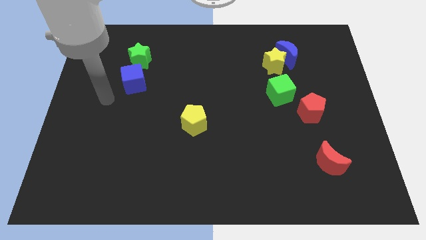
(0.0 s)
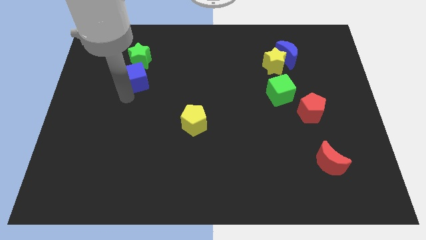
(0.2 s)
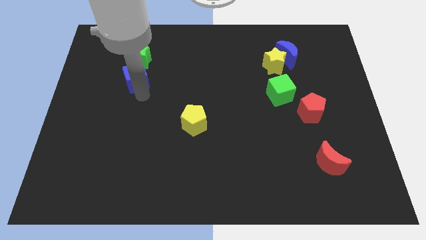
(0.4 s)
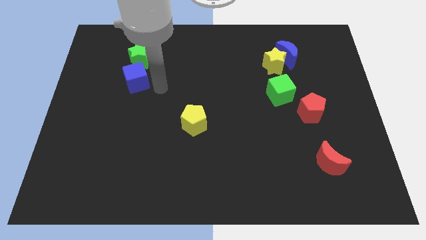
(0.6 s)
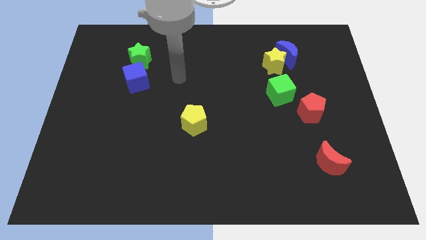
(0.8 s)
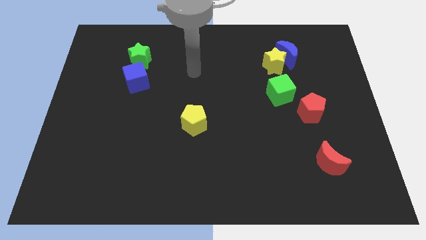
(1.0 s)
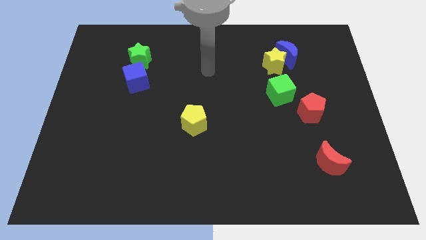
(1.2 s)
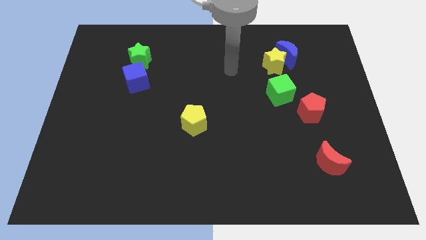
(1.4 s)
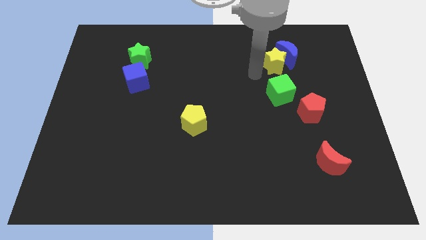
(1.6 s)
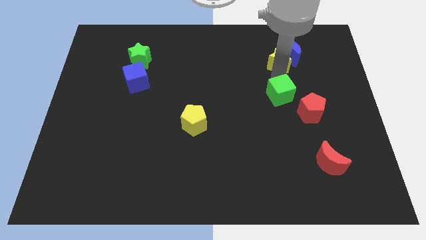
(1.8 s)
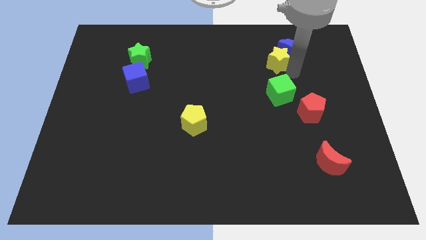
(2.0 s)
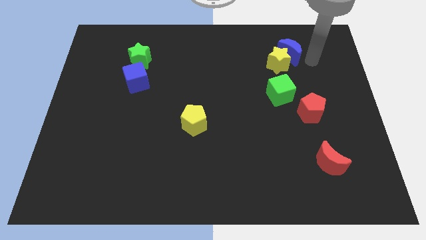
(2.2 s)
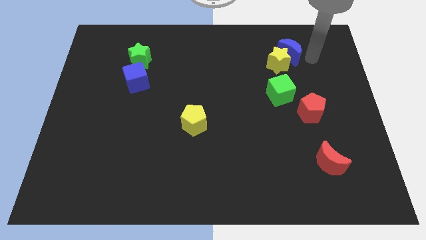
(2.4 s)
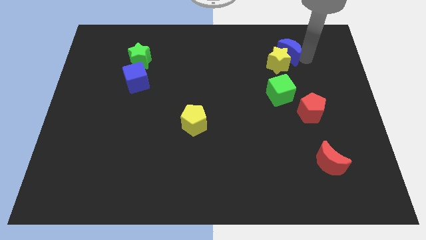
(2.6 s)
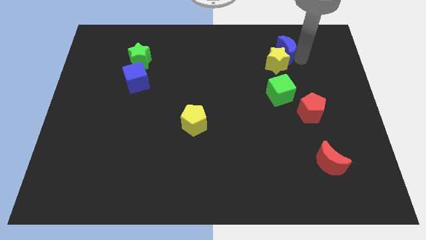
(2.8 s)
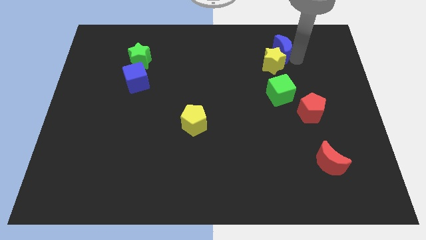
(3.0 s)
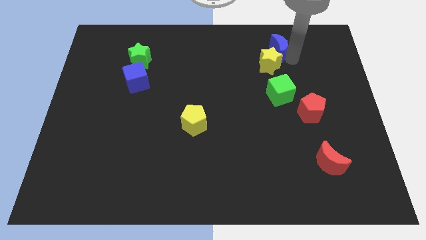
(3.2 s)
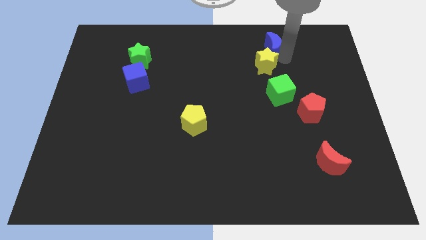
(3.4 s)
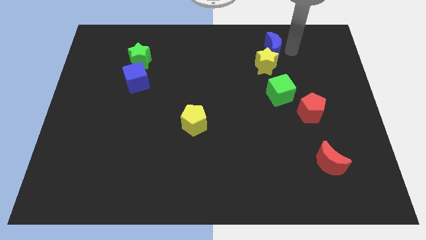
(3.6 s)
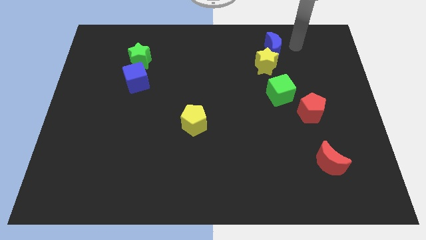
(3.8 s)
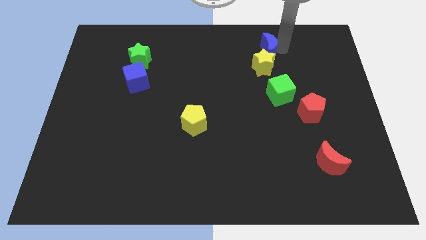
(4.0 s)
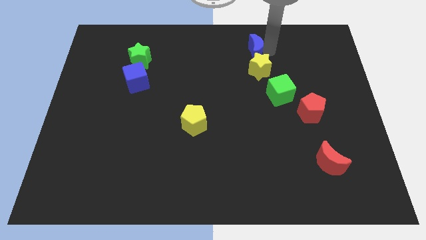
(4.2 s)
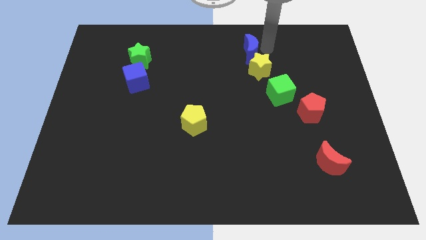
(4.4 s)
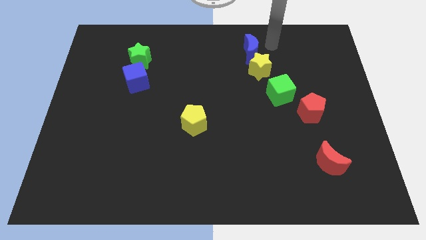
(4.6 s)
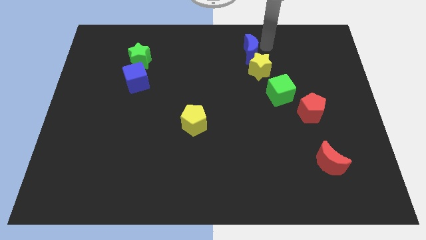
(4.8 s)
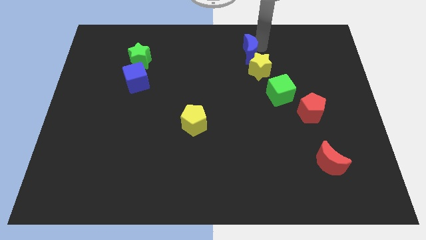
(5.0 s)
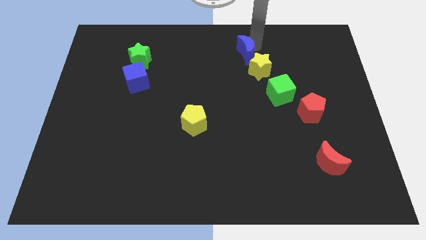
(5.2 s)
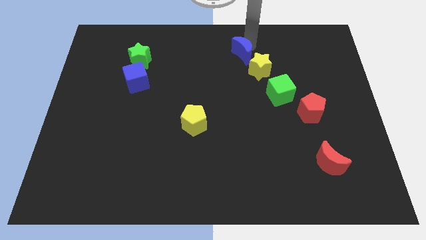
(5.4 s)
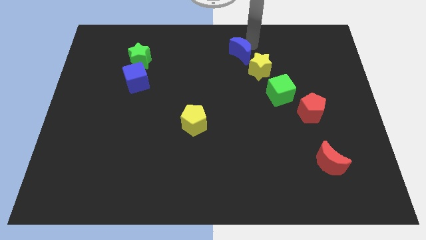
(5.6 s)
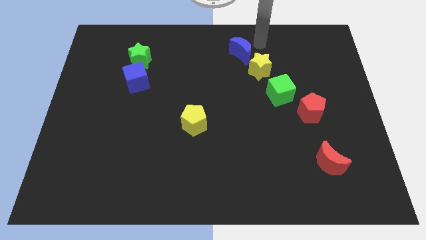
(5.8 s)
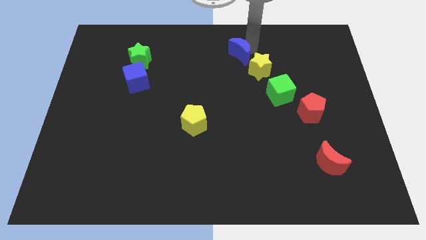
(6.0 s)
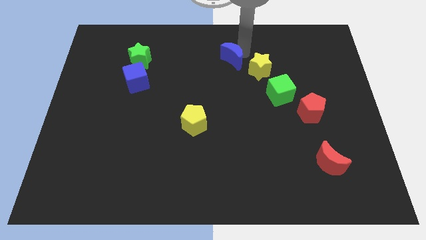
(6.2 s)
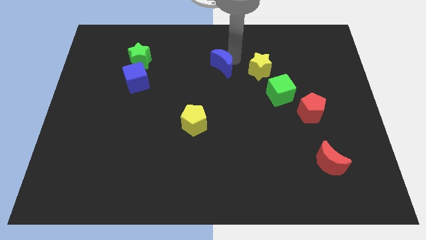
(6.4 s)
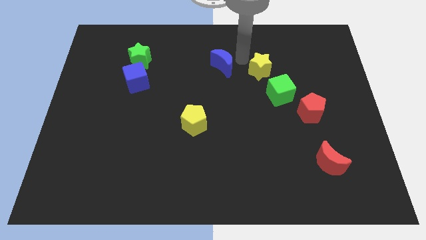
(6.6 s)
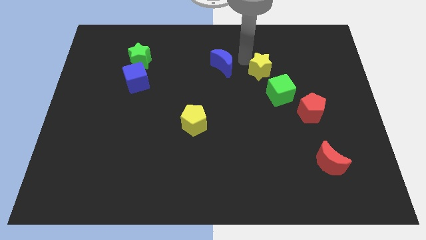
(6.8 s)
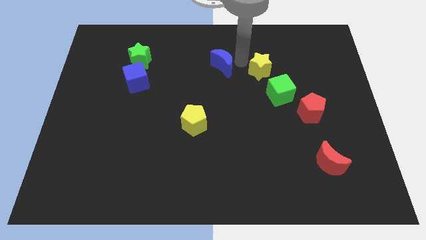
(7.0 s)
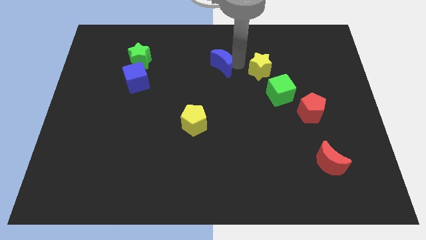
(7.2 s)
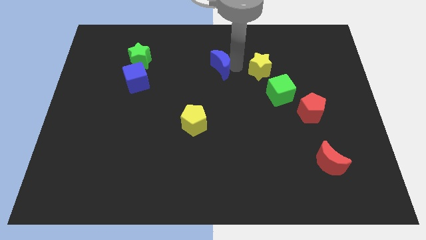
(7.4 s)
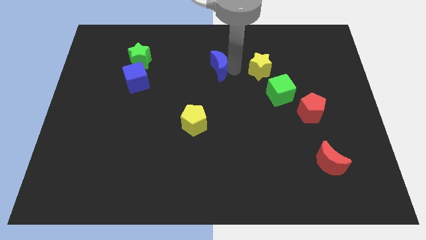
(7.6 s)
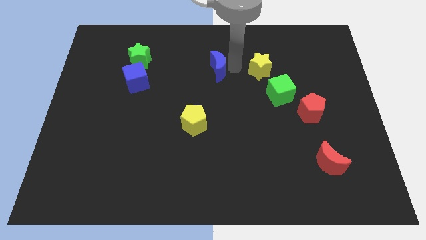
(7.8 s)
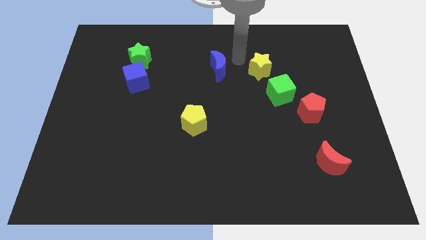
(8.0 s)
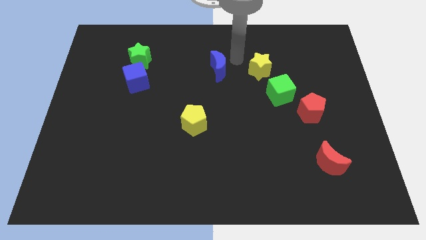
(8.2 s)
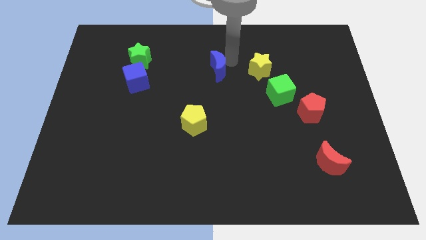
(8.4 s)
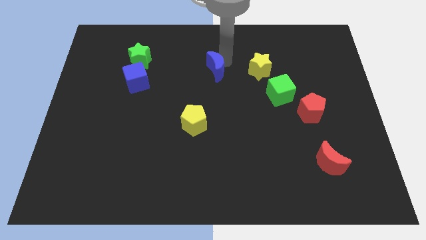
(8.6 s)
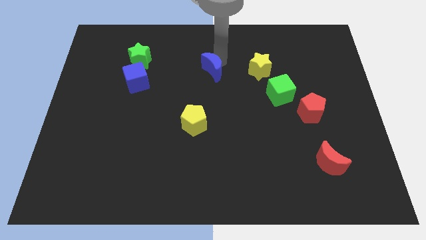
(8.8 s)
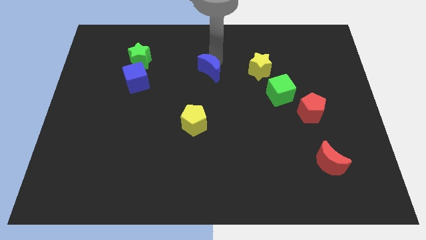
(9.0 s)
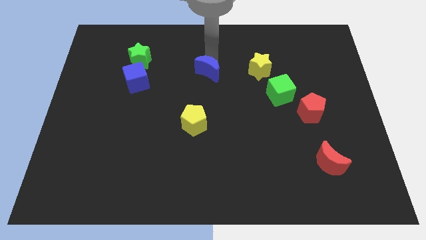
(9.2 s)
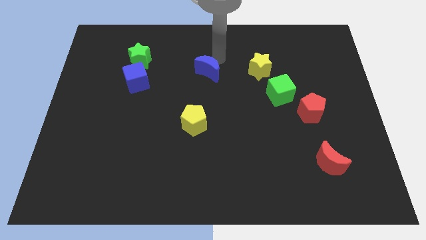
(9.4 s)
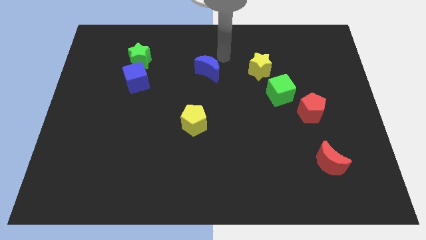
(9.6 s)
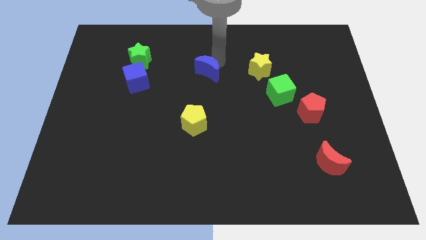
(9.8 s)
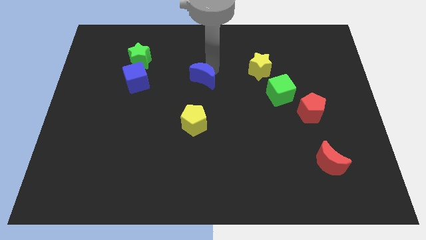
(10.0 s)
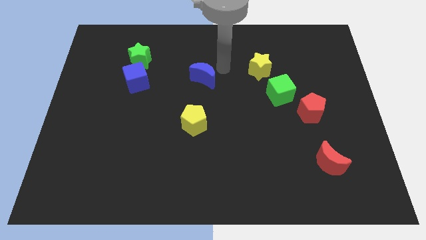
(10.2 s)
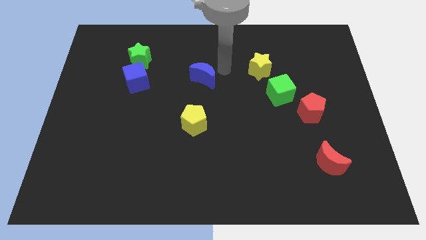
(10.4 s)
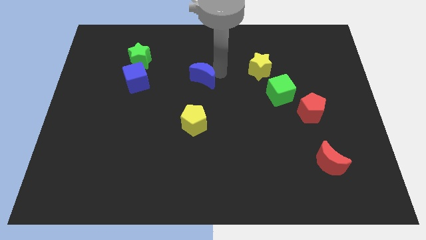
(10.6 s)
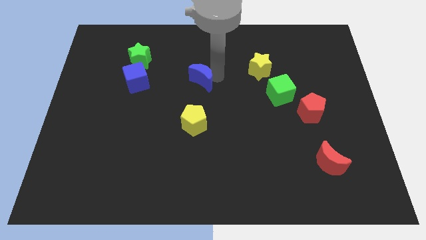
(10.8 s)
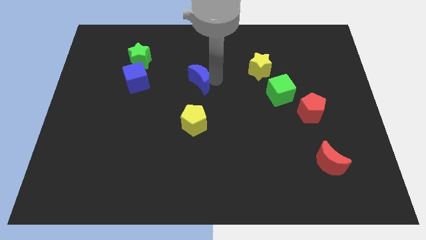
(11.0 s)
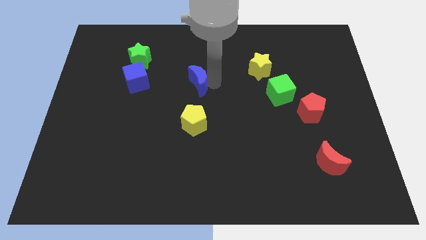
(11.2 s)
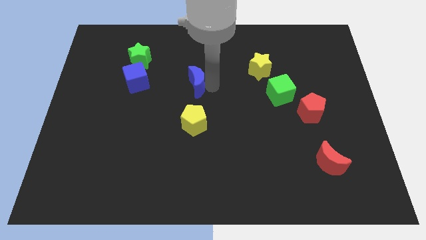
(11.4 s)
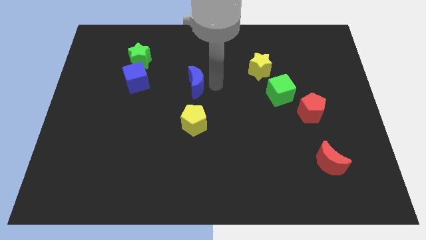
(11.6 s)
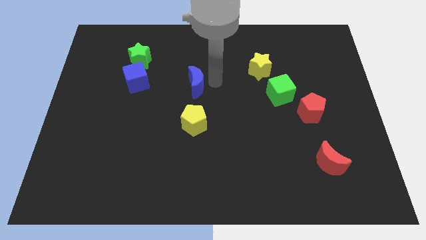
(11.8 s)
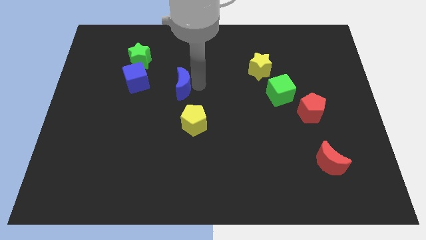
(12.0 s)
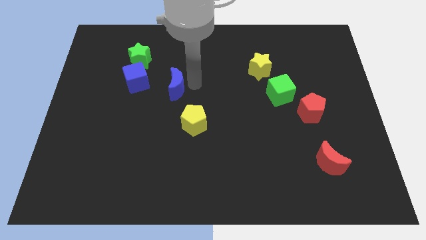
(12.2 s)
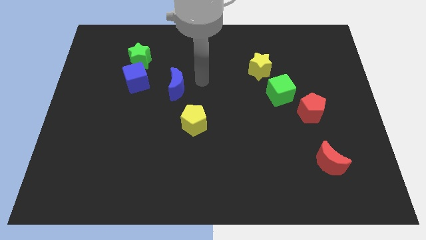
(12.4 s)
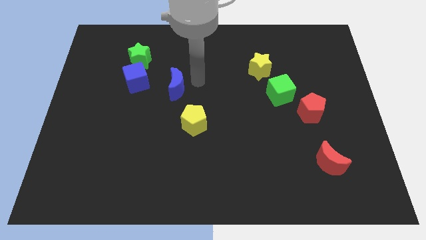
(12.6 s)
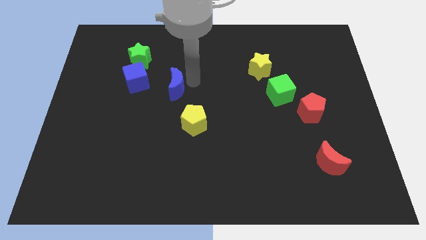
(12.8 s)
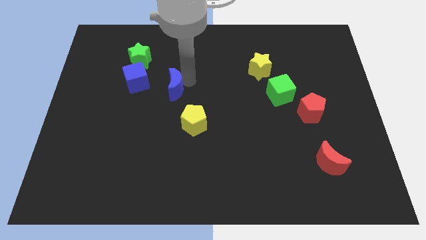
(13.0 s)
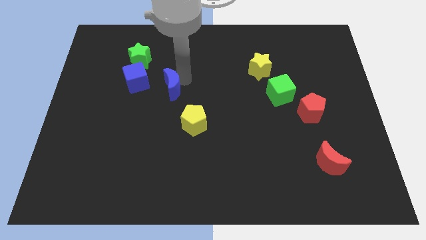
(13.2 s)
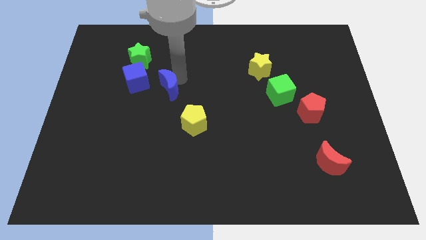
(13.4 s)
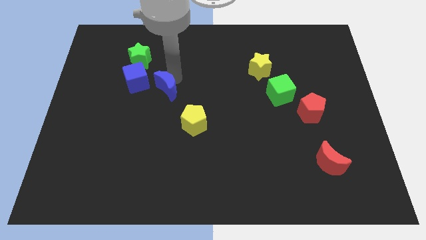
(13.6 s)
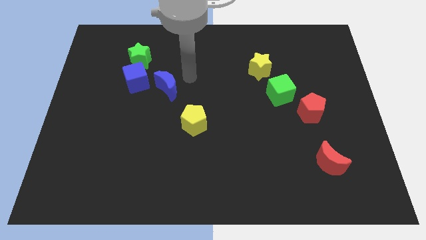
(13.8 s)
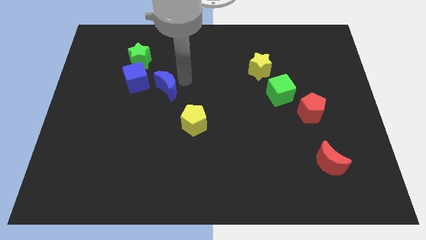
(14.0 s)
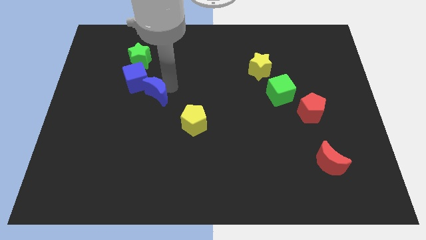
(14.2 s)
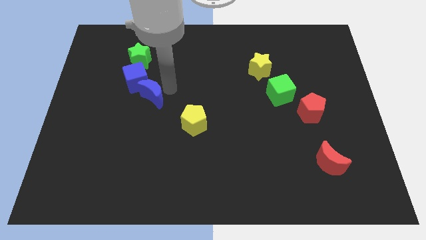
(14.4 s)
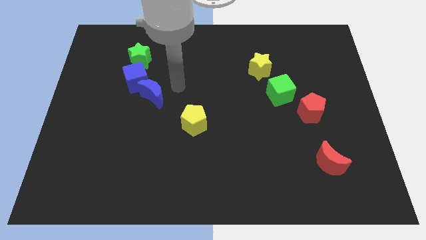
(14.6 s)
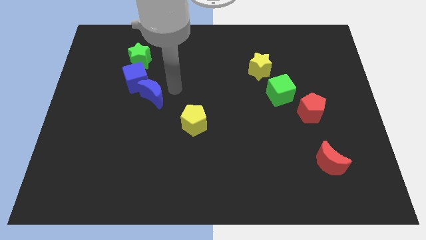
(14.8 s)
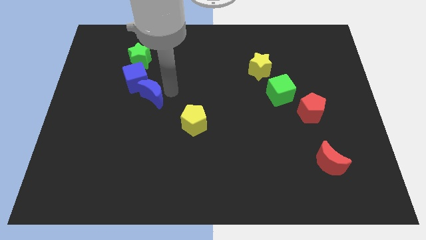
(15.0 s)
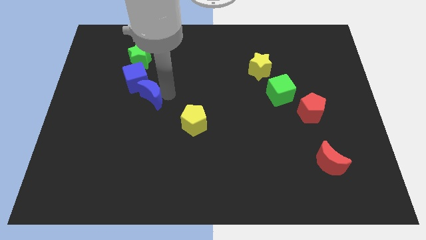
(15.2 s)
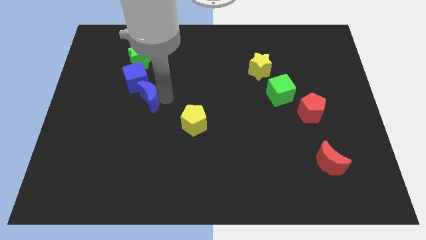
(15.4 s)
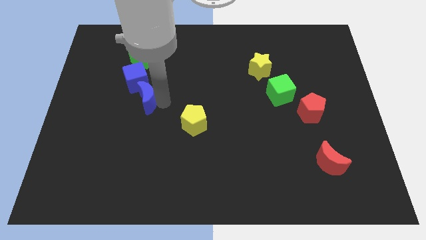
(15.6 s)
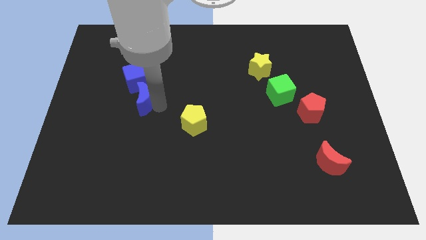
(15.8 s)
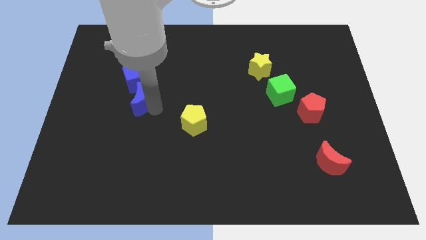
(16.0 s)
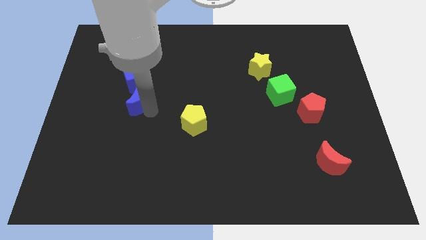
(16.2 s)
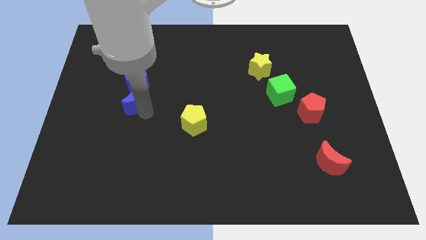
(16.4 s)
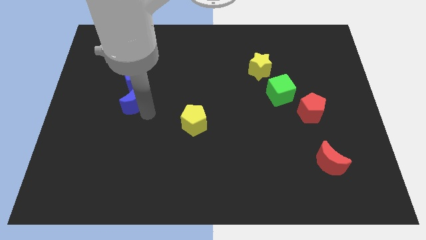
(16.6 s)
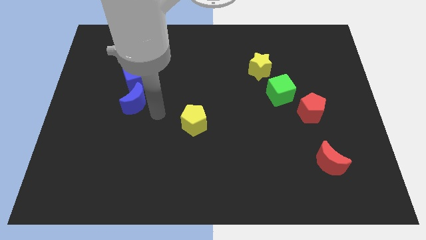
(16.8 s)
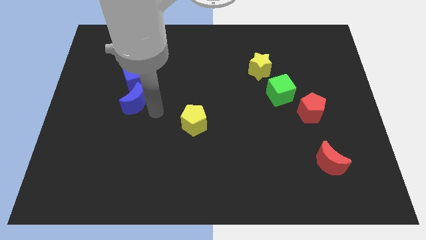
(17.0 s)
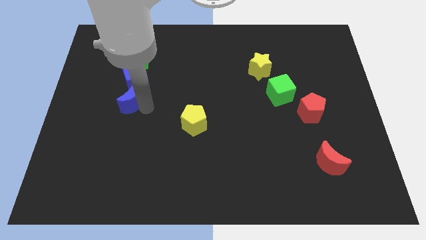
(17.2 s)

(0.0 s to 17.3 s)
push the blue moon to the bottom left side of the blue cube
